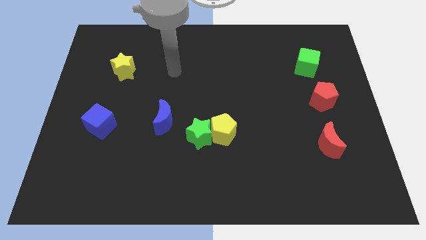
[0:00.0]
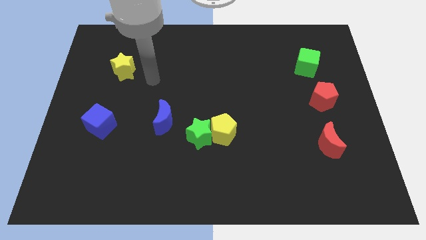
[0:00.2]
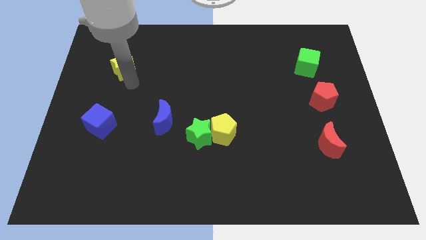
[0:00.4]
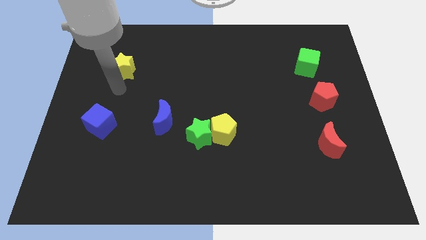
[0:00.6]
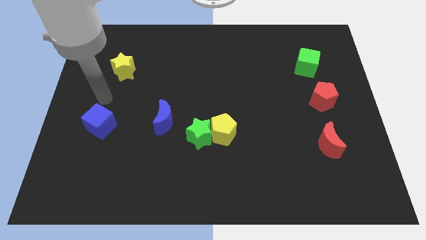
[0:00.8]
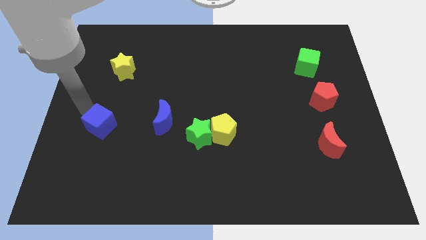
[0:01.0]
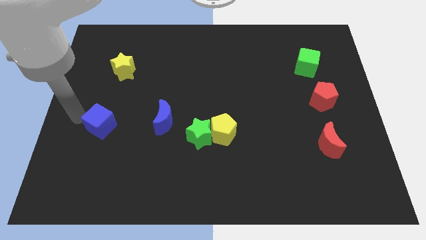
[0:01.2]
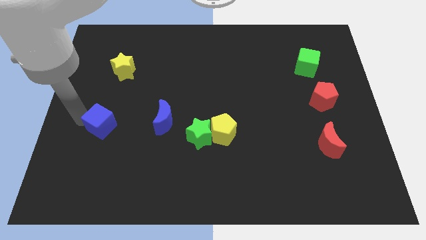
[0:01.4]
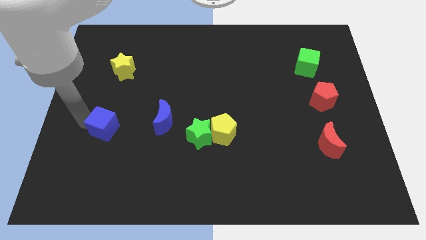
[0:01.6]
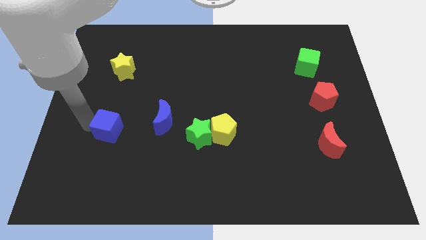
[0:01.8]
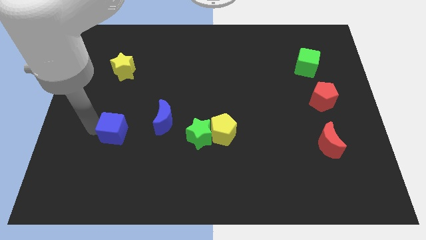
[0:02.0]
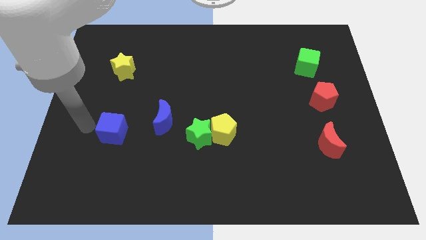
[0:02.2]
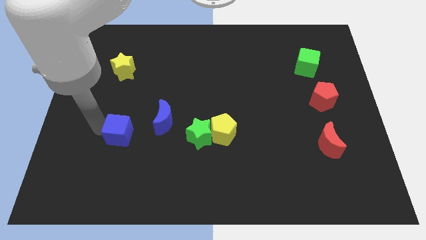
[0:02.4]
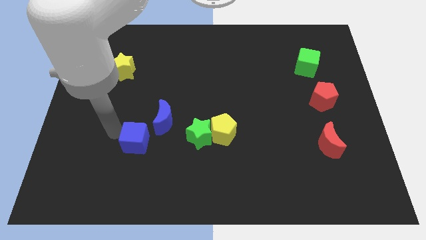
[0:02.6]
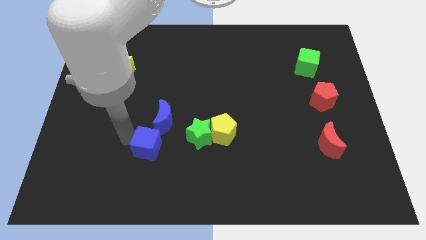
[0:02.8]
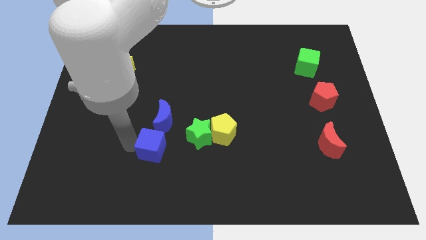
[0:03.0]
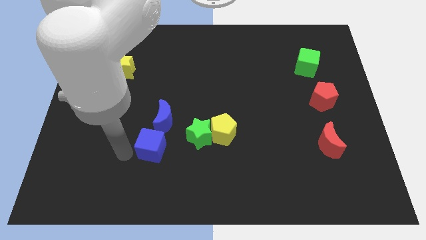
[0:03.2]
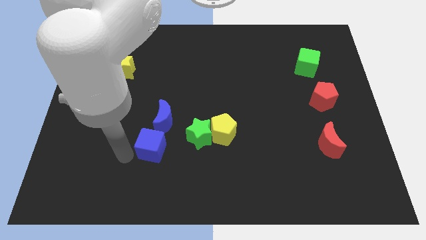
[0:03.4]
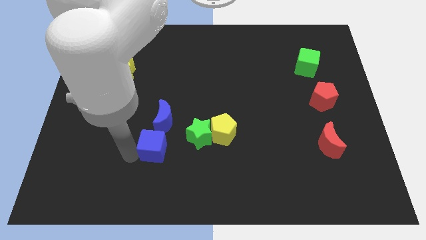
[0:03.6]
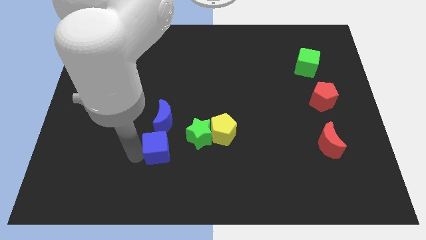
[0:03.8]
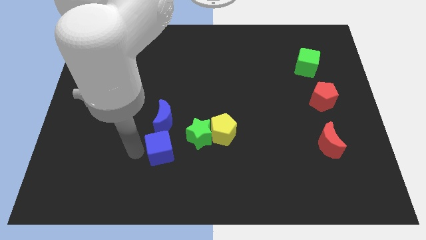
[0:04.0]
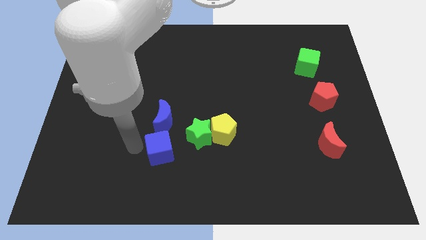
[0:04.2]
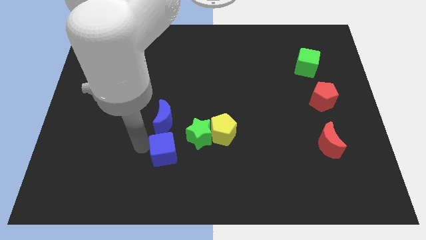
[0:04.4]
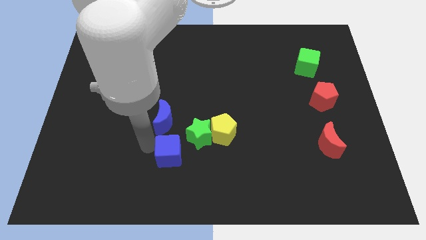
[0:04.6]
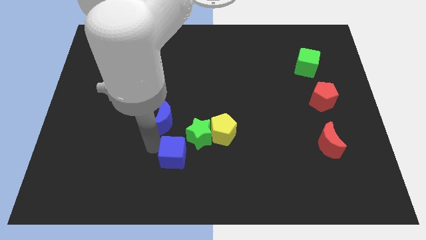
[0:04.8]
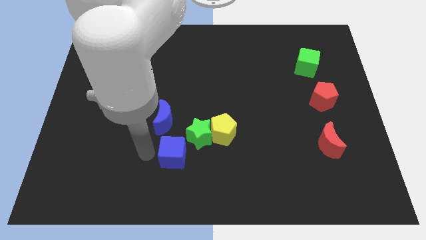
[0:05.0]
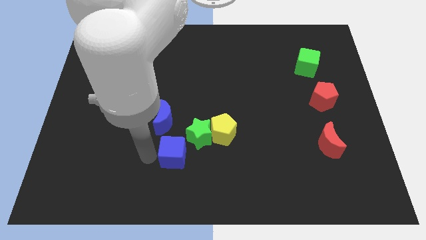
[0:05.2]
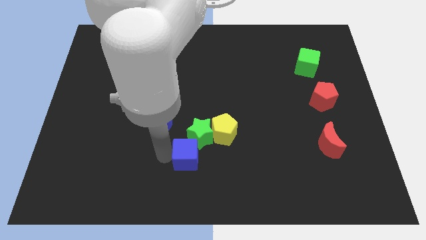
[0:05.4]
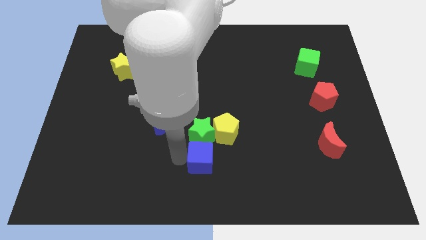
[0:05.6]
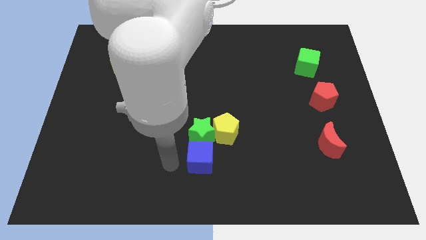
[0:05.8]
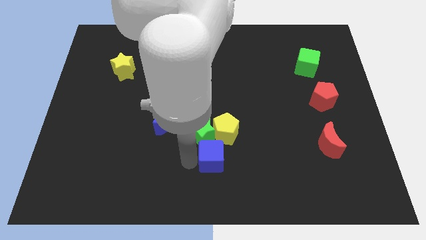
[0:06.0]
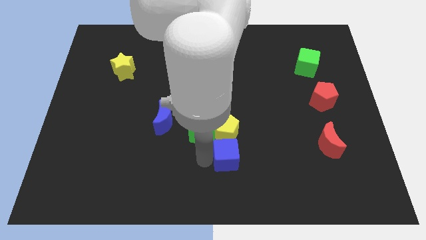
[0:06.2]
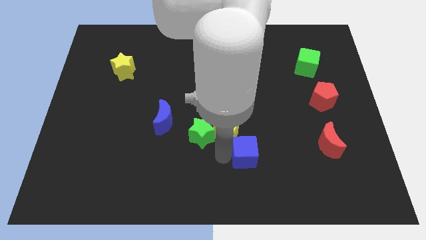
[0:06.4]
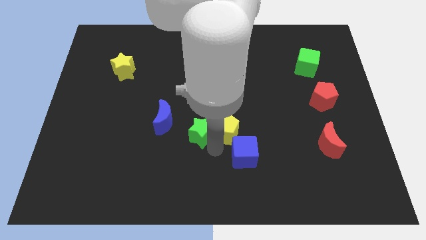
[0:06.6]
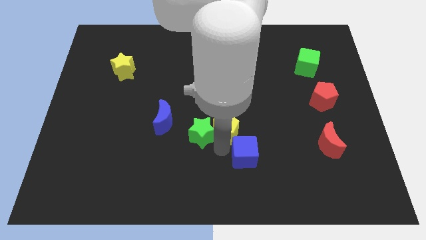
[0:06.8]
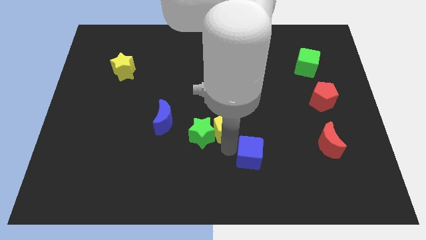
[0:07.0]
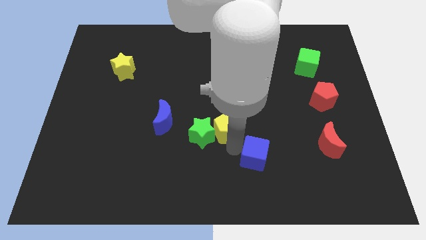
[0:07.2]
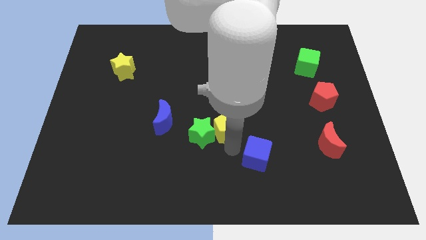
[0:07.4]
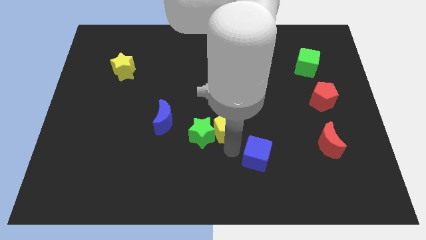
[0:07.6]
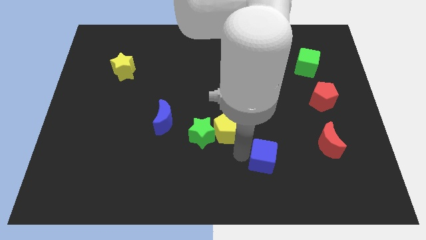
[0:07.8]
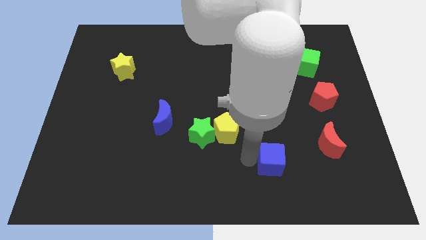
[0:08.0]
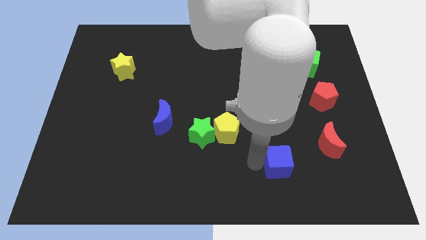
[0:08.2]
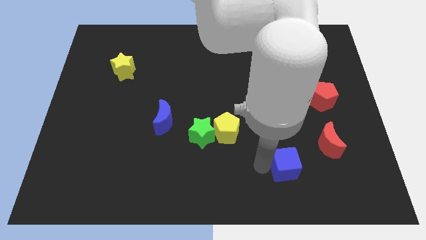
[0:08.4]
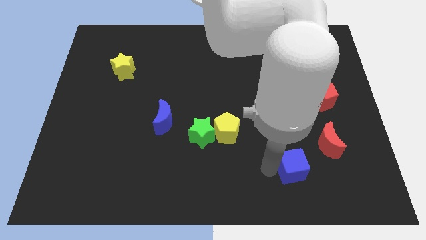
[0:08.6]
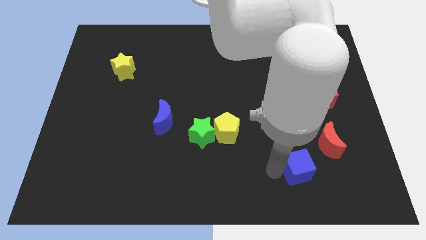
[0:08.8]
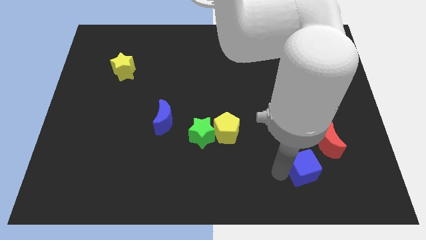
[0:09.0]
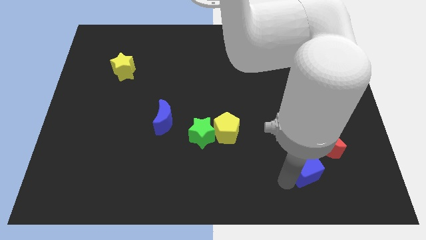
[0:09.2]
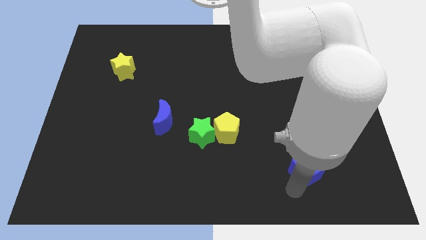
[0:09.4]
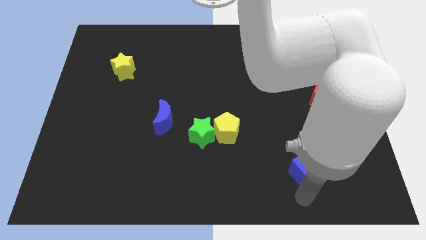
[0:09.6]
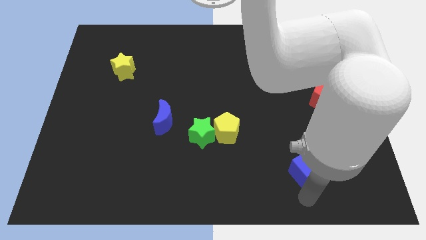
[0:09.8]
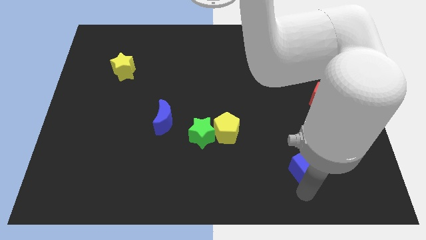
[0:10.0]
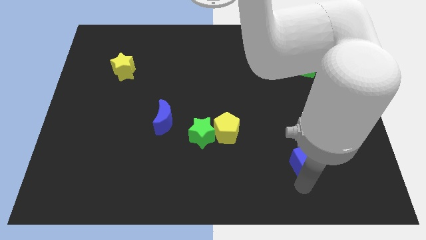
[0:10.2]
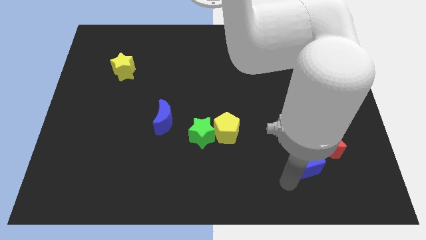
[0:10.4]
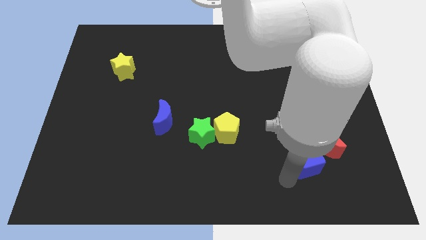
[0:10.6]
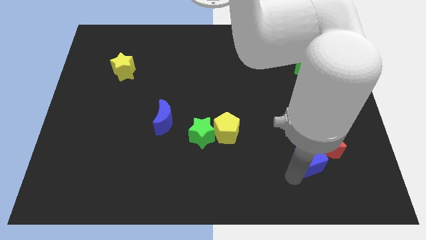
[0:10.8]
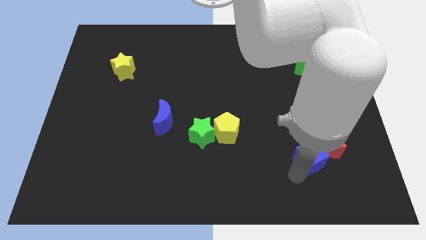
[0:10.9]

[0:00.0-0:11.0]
push the blue cube close to the red moon

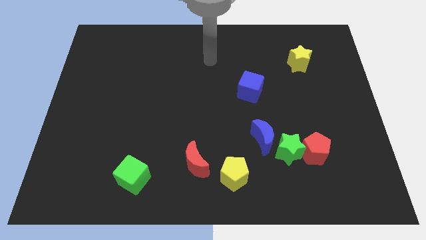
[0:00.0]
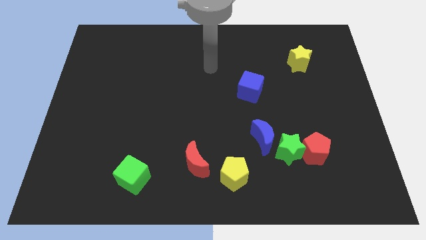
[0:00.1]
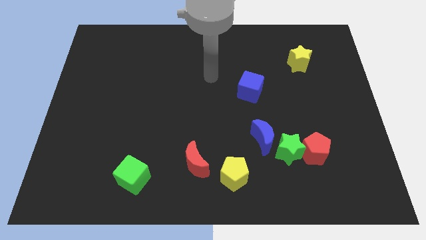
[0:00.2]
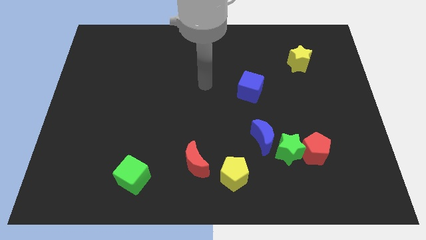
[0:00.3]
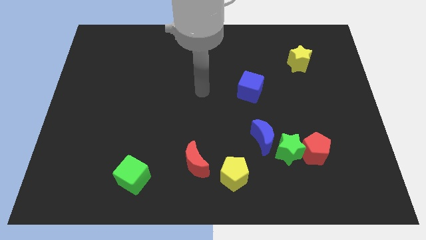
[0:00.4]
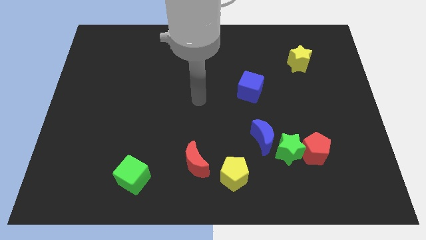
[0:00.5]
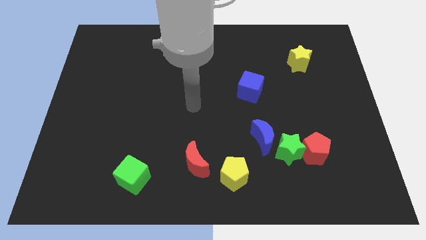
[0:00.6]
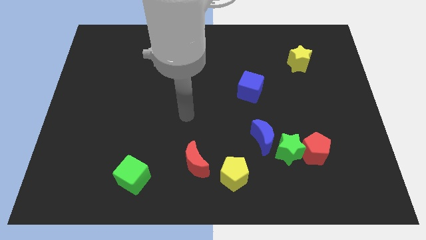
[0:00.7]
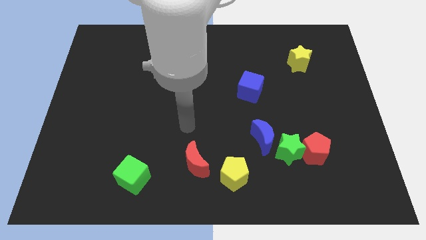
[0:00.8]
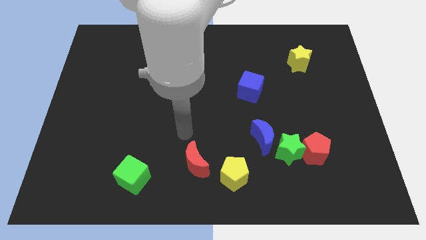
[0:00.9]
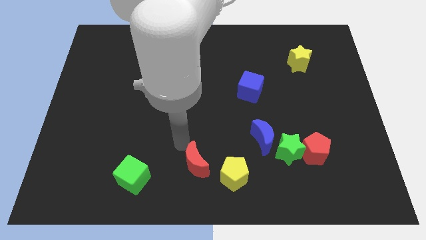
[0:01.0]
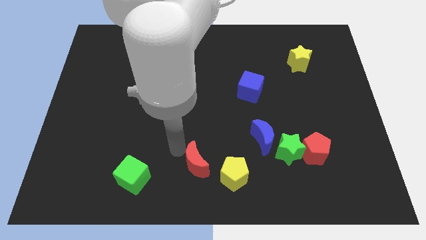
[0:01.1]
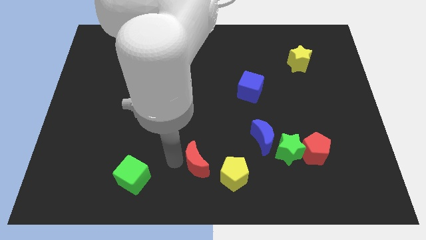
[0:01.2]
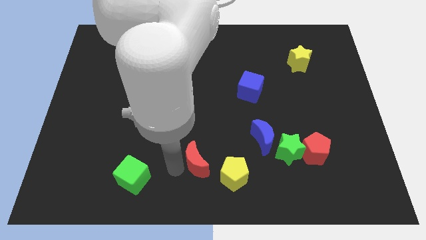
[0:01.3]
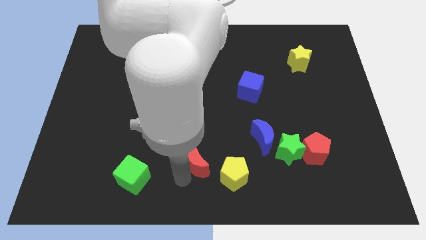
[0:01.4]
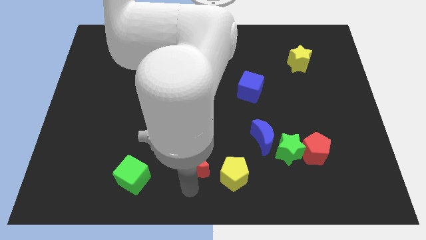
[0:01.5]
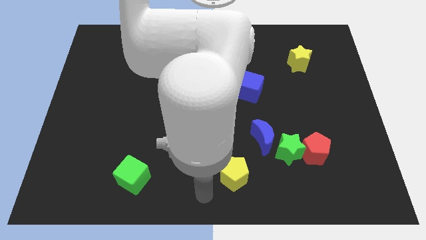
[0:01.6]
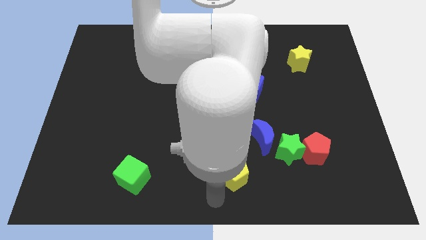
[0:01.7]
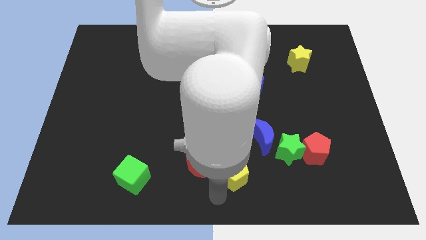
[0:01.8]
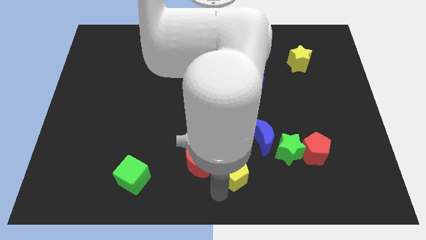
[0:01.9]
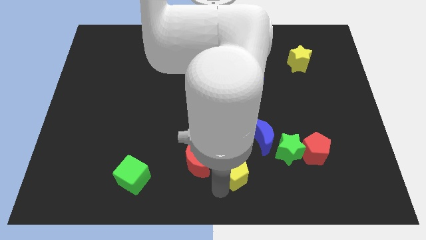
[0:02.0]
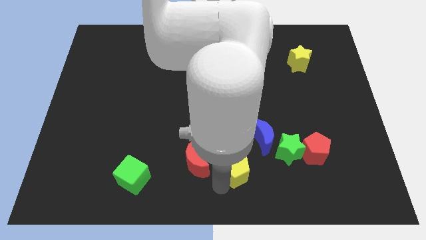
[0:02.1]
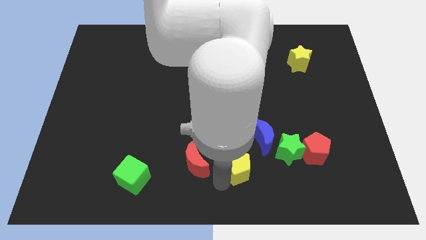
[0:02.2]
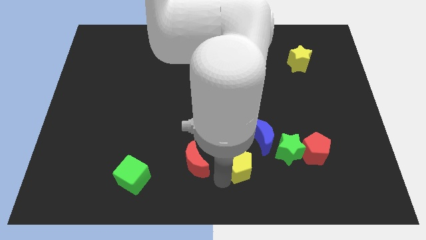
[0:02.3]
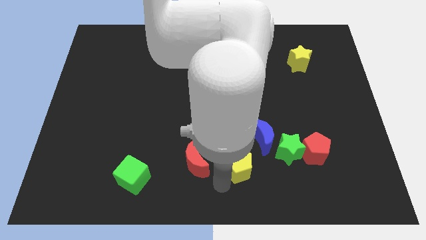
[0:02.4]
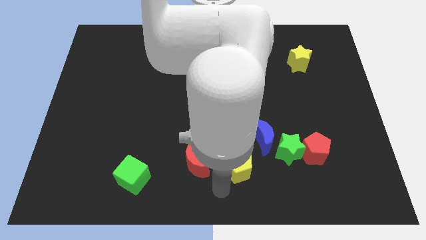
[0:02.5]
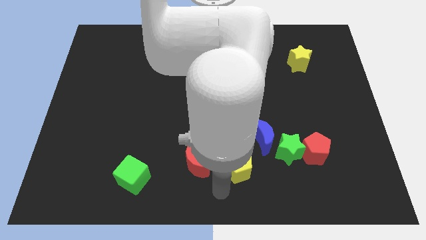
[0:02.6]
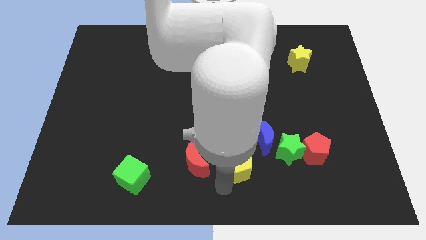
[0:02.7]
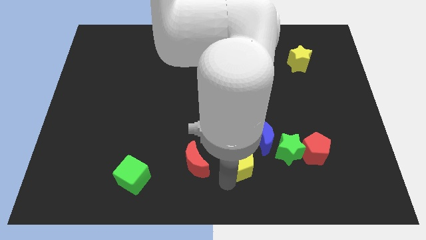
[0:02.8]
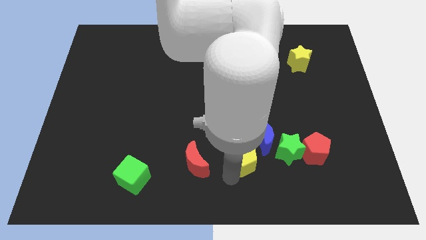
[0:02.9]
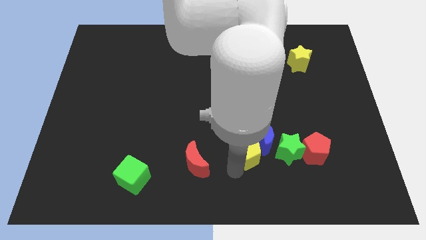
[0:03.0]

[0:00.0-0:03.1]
put the yellow pentagon next to the blue moon
